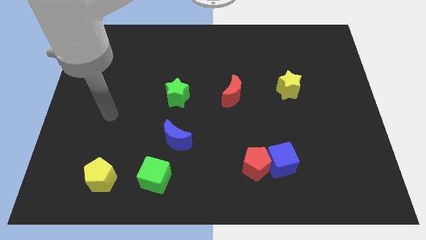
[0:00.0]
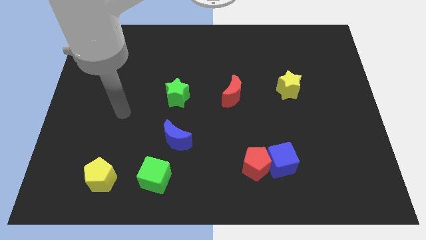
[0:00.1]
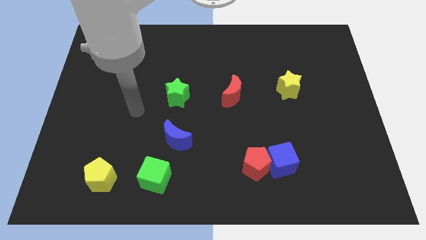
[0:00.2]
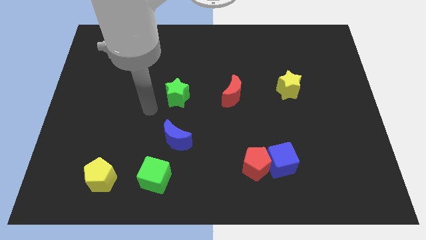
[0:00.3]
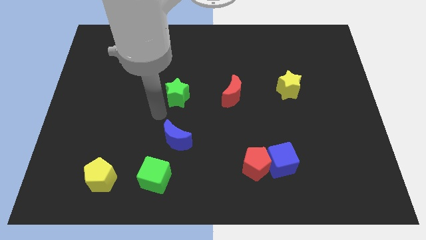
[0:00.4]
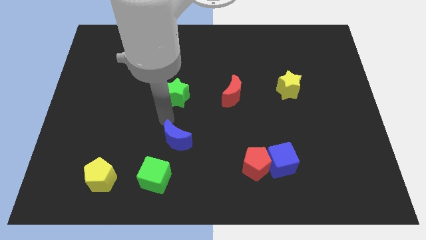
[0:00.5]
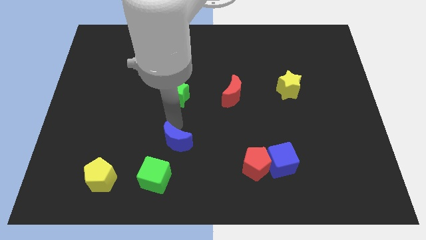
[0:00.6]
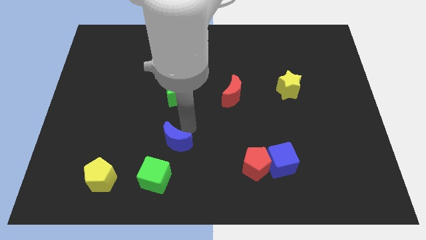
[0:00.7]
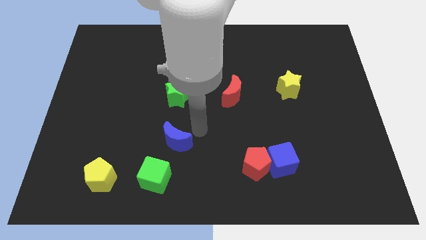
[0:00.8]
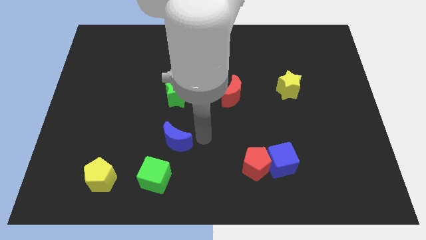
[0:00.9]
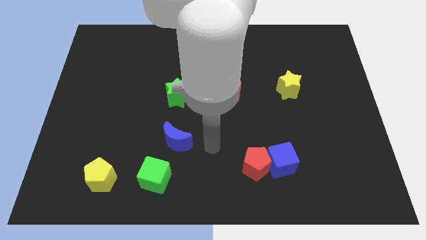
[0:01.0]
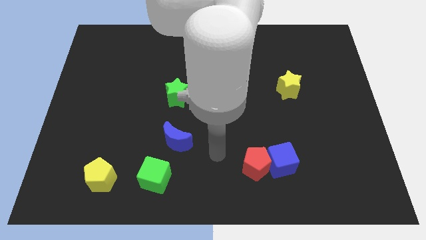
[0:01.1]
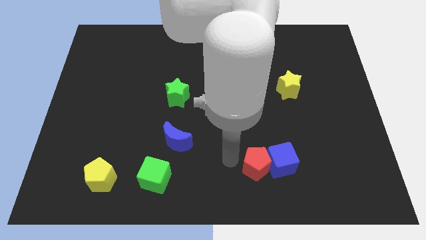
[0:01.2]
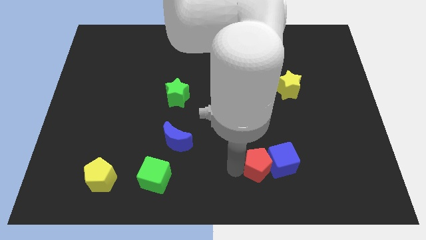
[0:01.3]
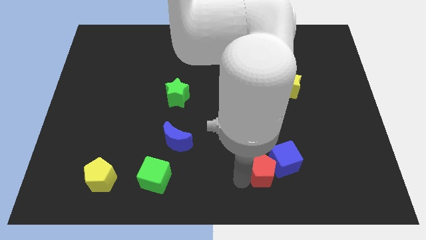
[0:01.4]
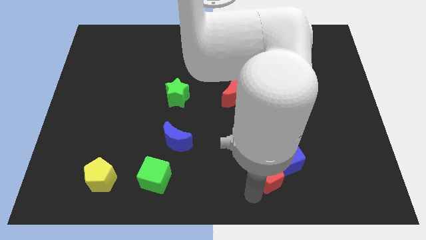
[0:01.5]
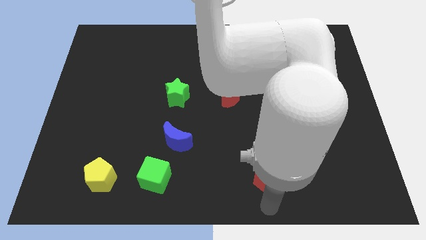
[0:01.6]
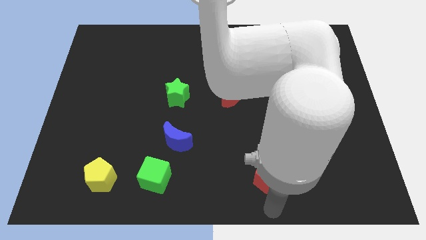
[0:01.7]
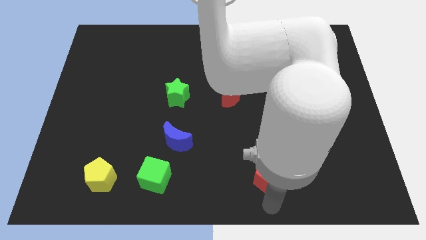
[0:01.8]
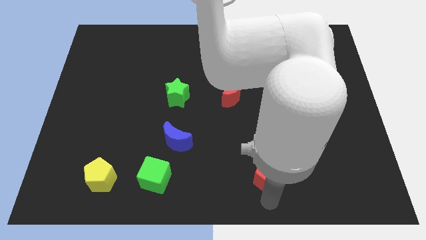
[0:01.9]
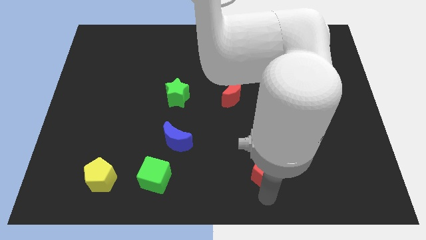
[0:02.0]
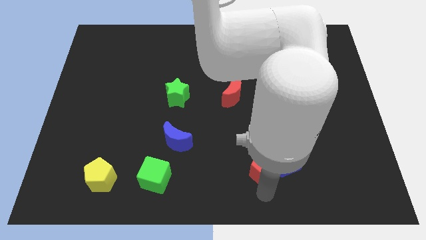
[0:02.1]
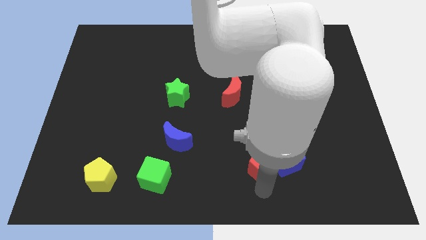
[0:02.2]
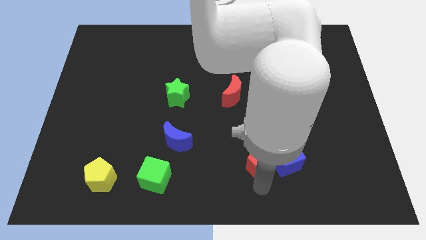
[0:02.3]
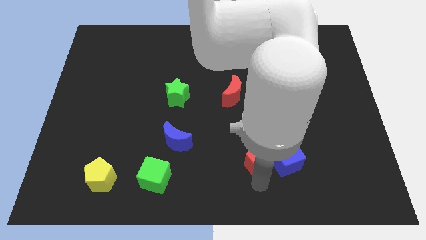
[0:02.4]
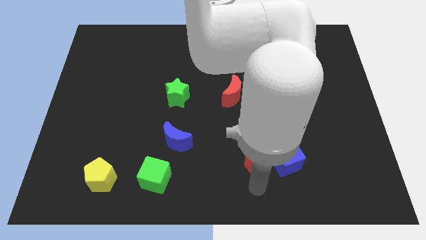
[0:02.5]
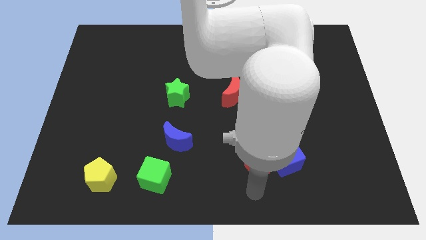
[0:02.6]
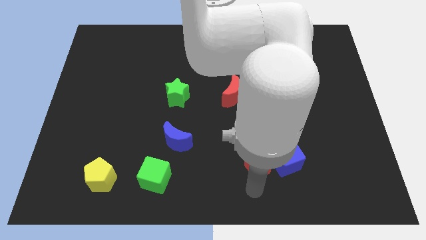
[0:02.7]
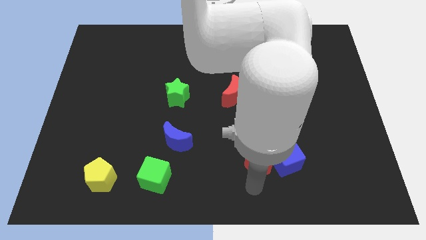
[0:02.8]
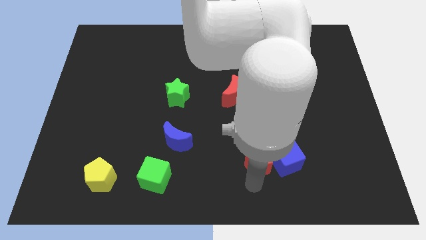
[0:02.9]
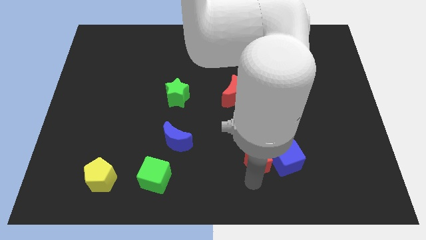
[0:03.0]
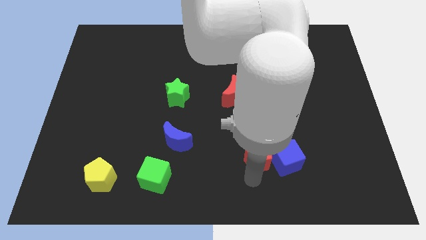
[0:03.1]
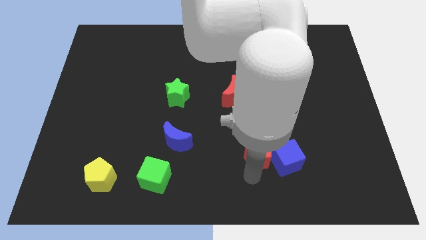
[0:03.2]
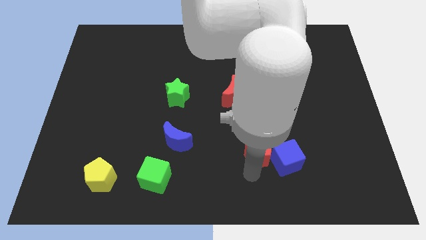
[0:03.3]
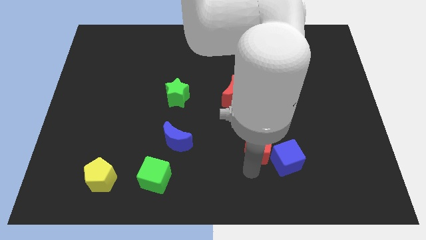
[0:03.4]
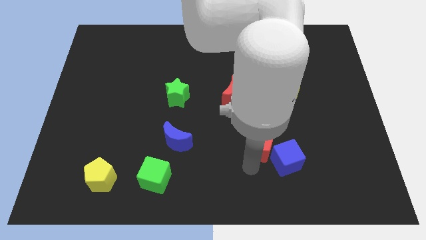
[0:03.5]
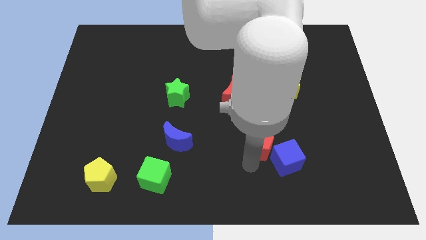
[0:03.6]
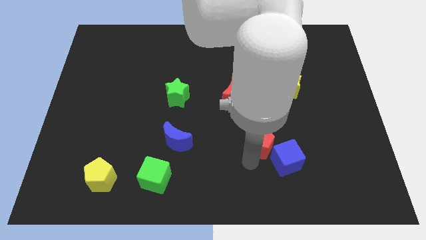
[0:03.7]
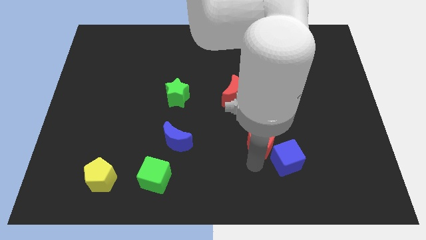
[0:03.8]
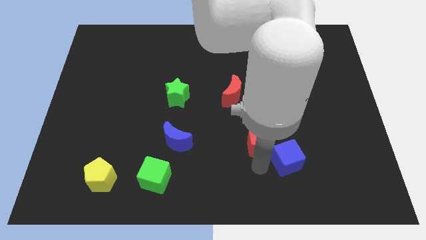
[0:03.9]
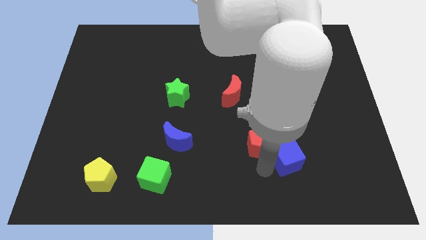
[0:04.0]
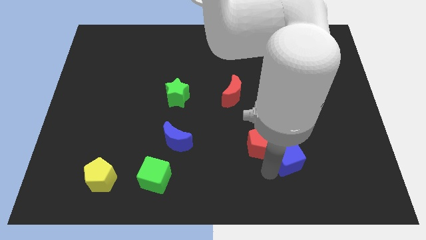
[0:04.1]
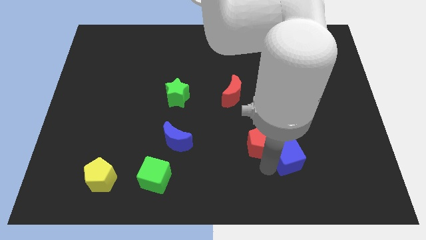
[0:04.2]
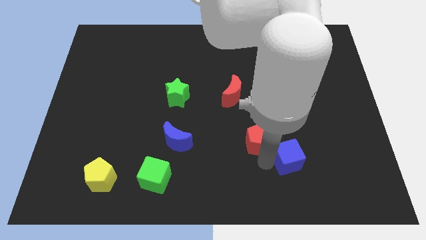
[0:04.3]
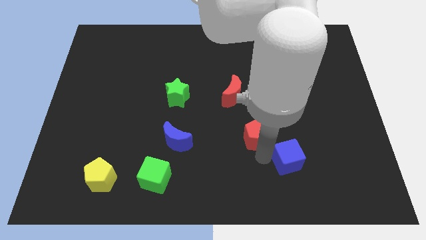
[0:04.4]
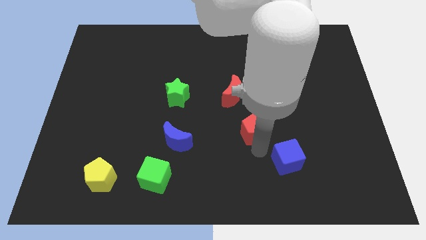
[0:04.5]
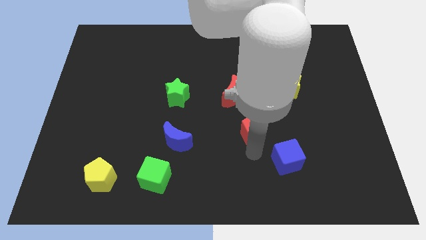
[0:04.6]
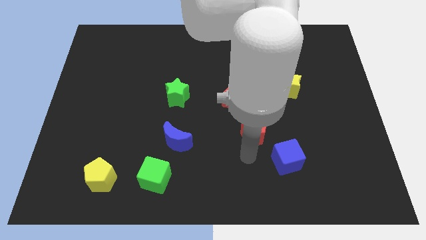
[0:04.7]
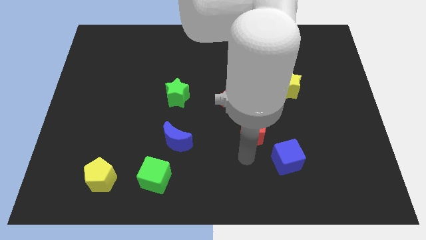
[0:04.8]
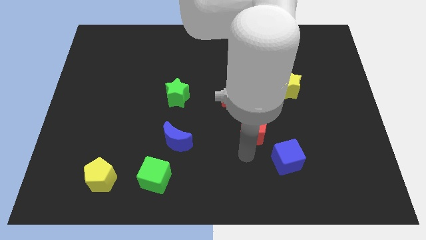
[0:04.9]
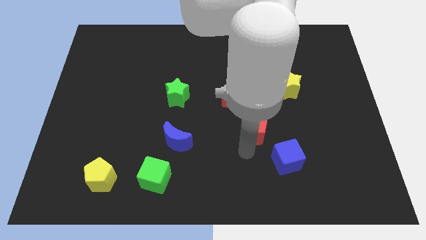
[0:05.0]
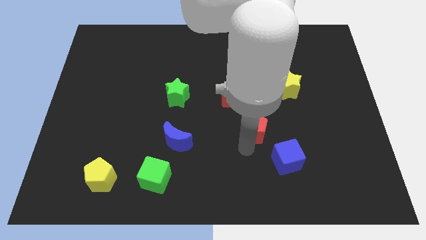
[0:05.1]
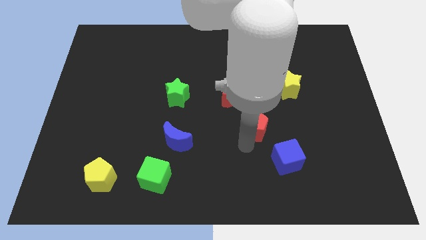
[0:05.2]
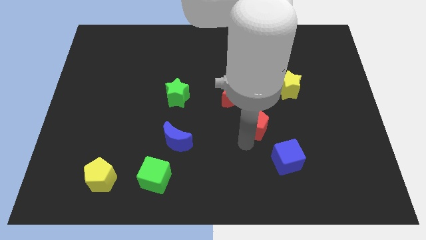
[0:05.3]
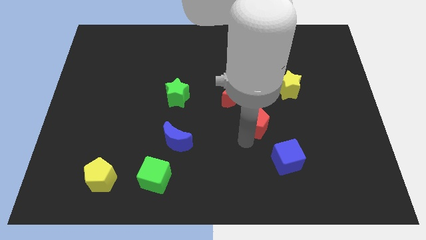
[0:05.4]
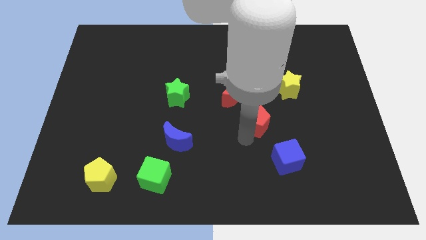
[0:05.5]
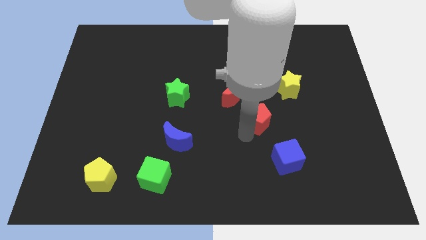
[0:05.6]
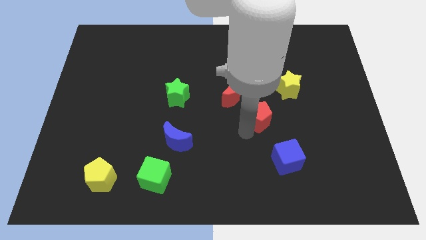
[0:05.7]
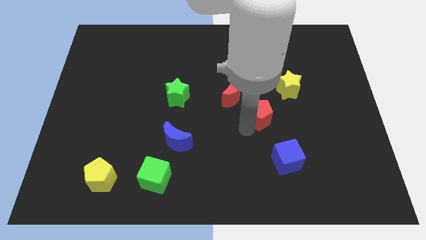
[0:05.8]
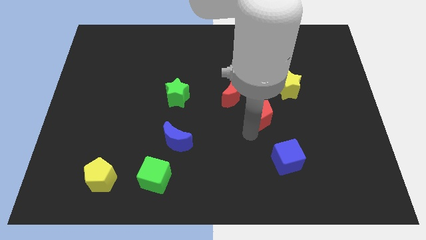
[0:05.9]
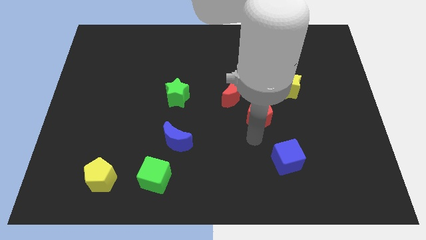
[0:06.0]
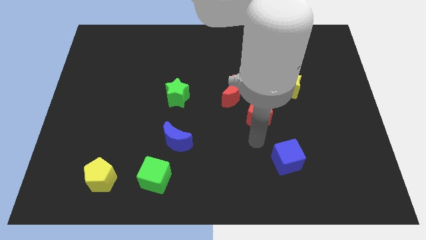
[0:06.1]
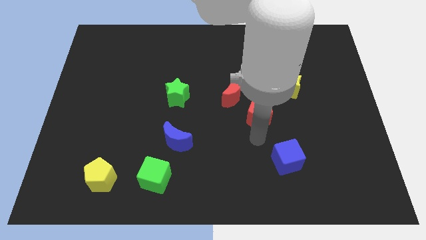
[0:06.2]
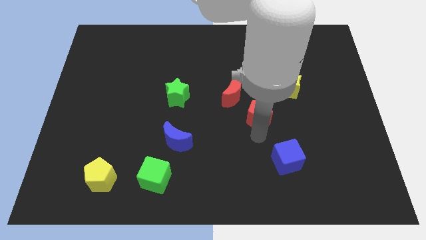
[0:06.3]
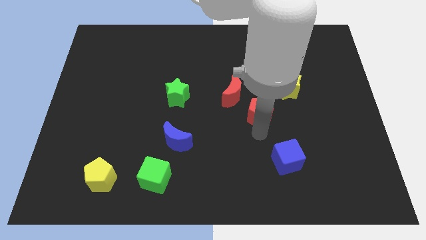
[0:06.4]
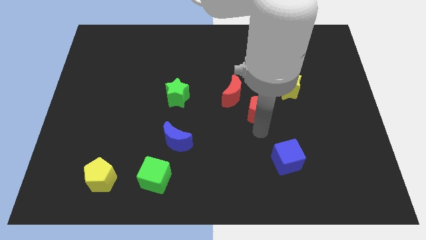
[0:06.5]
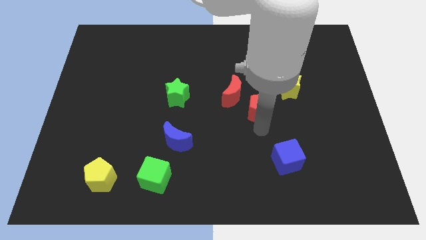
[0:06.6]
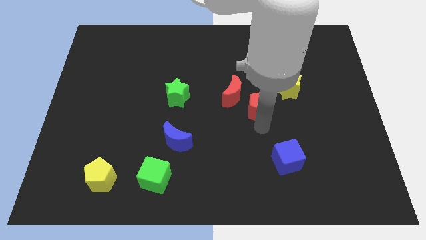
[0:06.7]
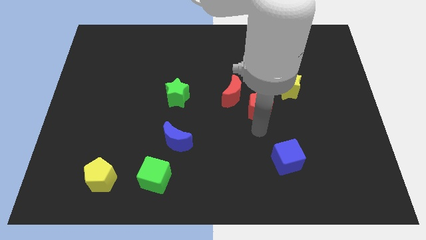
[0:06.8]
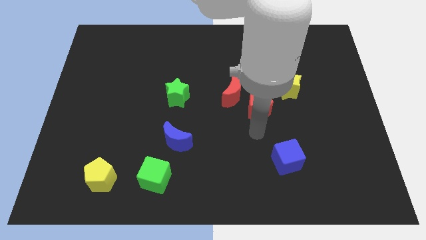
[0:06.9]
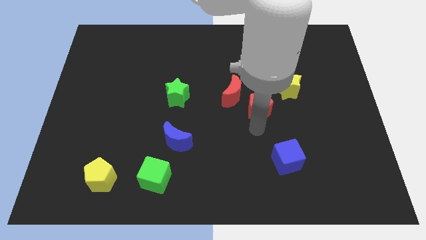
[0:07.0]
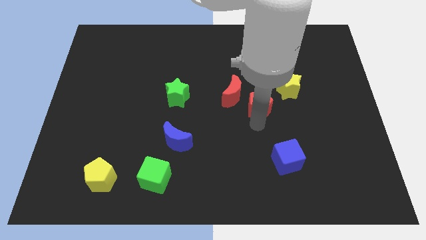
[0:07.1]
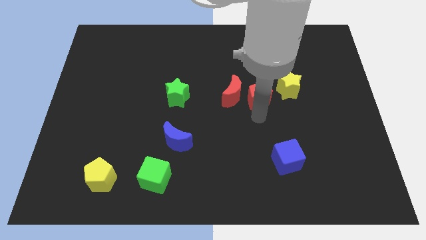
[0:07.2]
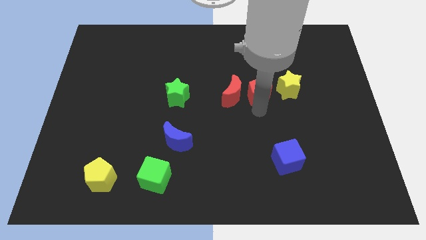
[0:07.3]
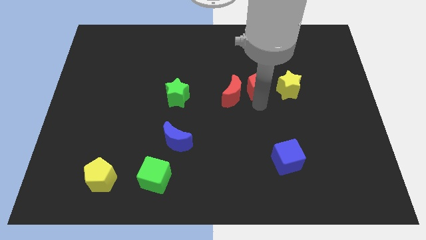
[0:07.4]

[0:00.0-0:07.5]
slide the red pentagon up

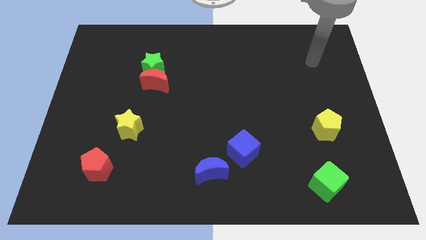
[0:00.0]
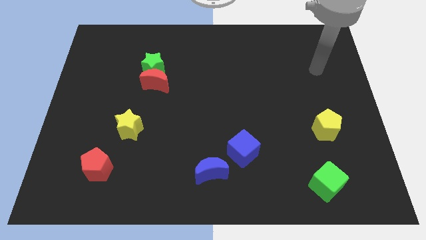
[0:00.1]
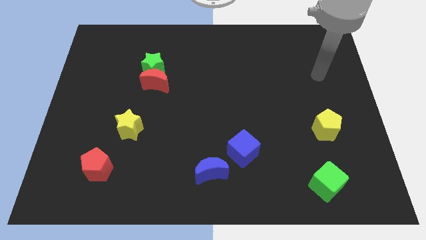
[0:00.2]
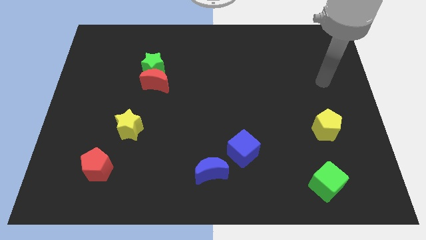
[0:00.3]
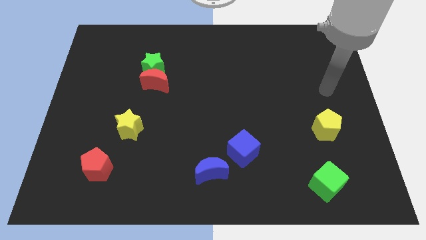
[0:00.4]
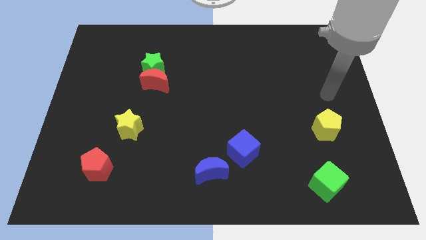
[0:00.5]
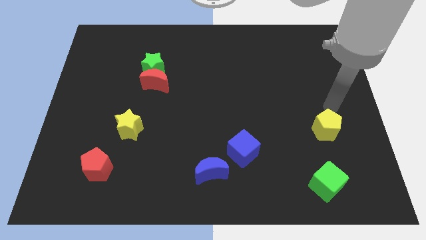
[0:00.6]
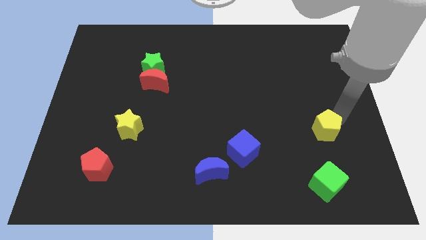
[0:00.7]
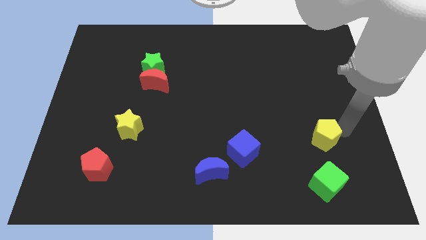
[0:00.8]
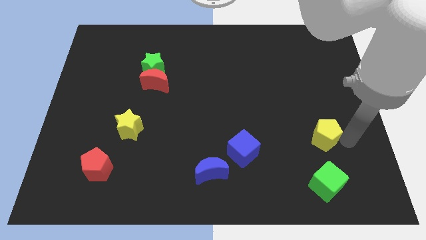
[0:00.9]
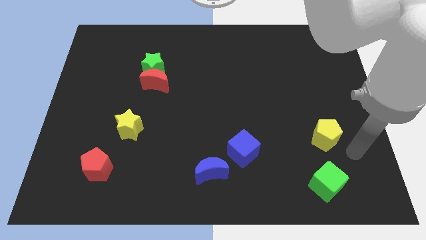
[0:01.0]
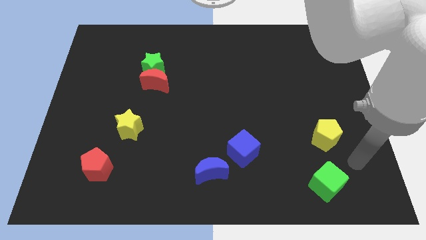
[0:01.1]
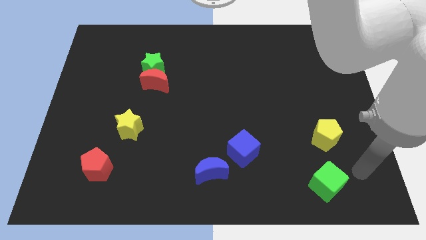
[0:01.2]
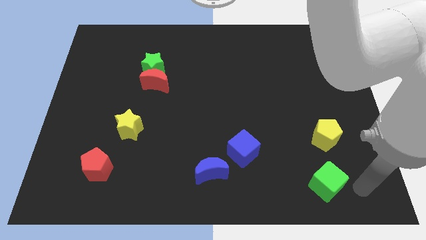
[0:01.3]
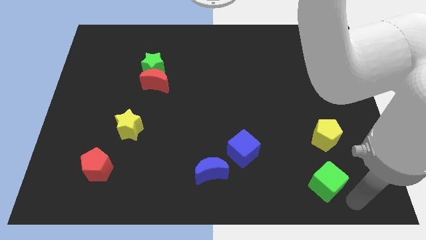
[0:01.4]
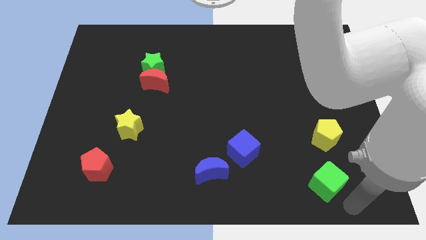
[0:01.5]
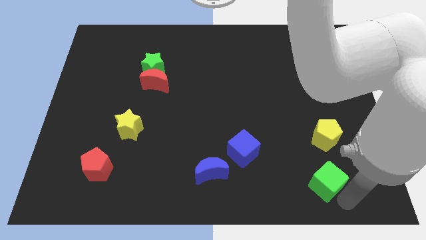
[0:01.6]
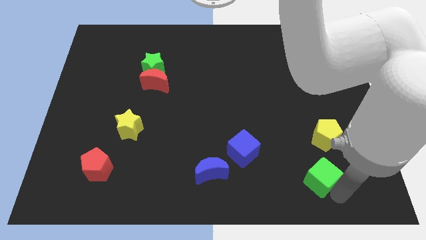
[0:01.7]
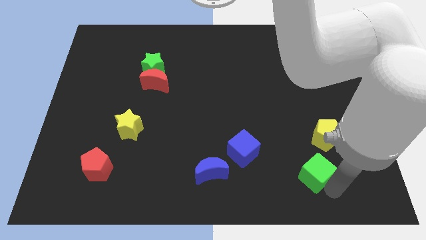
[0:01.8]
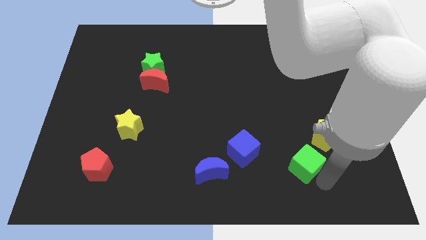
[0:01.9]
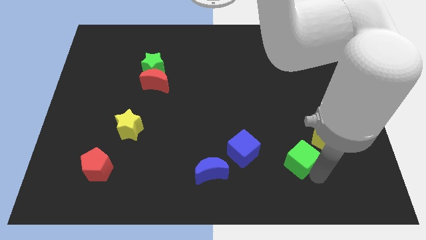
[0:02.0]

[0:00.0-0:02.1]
push the green cube slightly diagonally up and left
